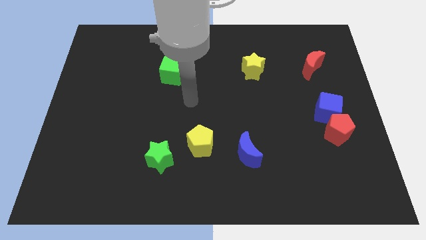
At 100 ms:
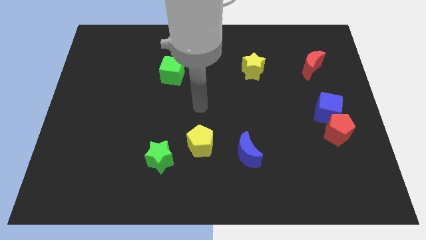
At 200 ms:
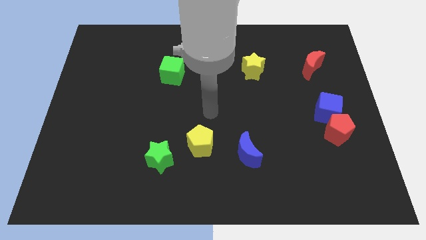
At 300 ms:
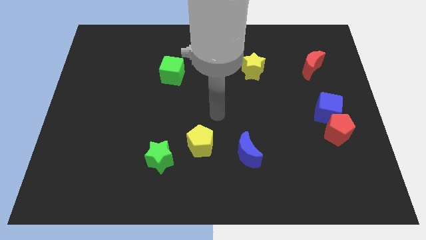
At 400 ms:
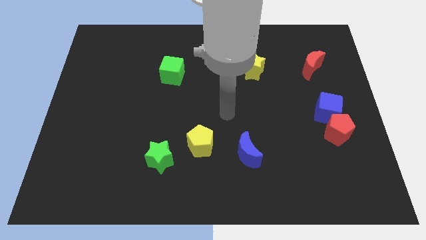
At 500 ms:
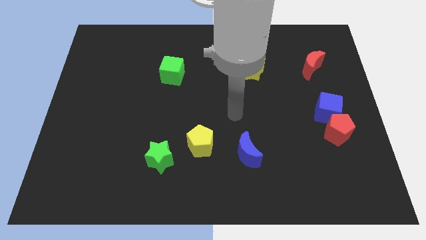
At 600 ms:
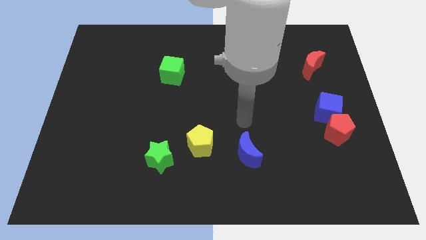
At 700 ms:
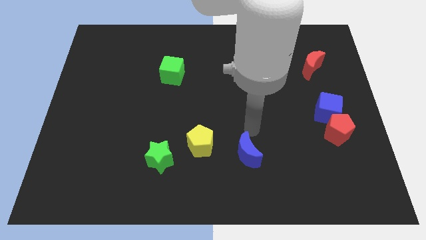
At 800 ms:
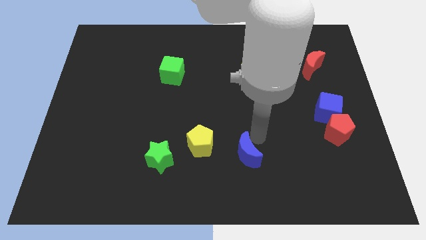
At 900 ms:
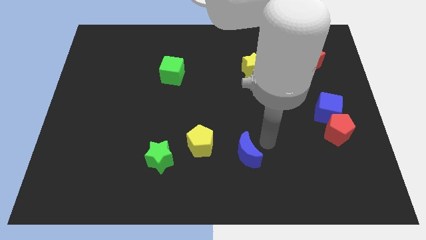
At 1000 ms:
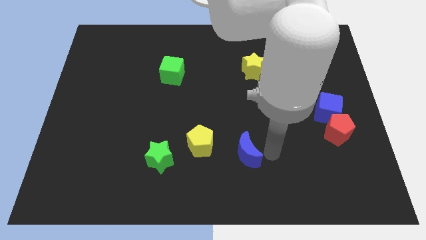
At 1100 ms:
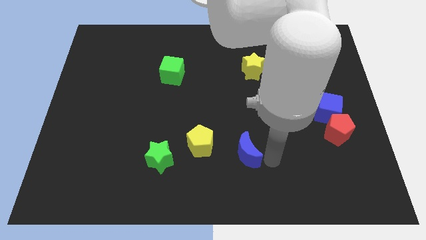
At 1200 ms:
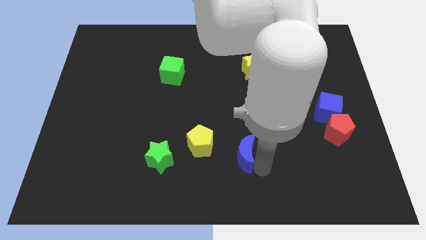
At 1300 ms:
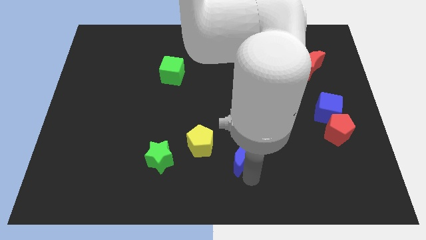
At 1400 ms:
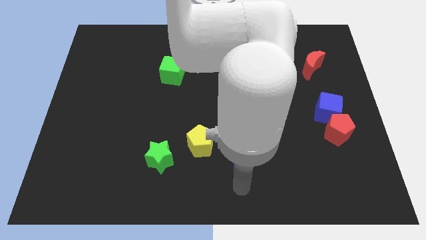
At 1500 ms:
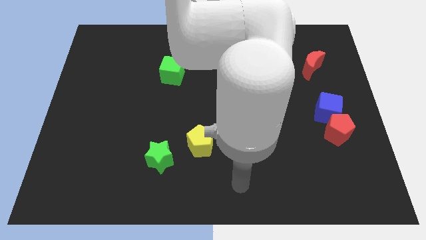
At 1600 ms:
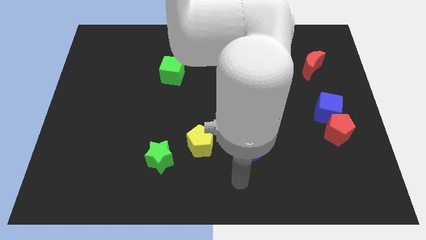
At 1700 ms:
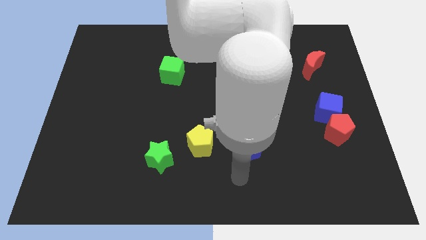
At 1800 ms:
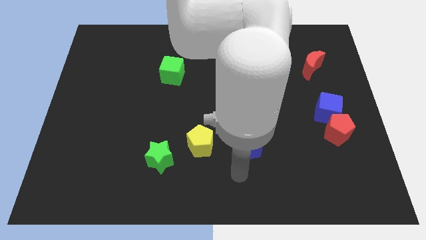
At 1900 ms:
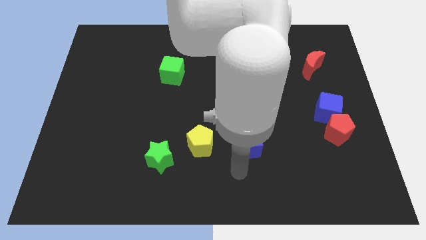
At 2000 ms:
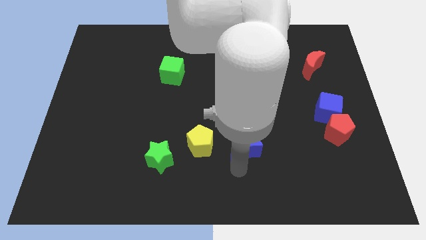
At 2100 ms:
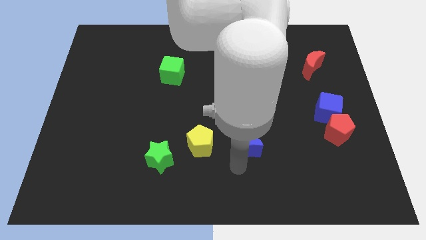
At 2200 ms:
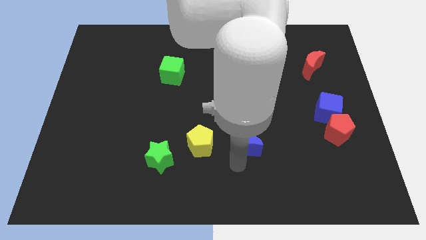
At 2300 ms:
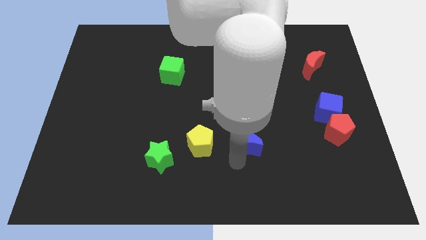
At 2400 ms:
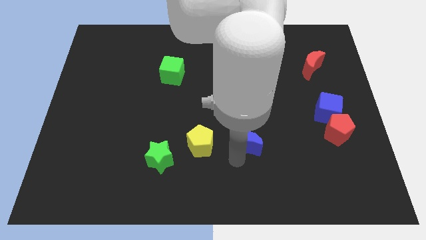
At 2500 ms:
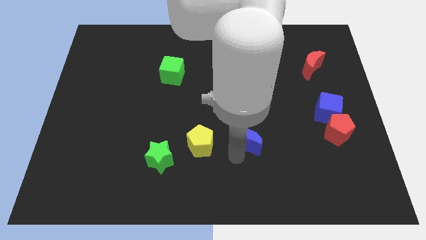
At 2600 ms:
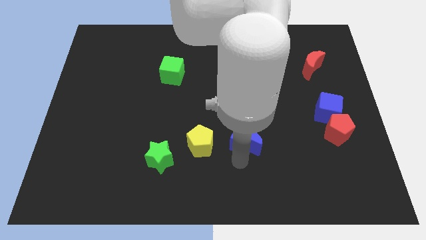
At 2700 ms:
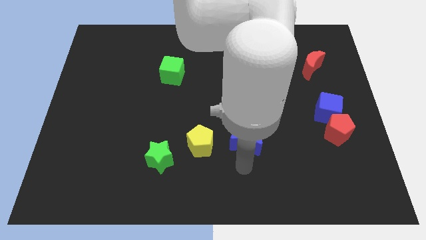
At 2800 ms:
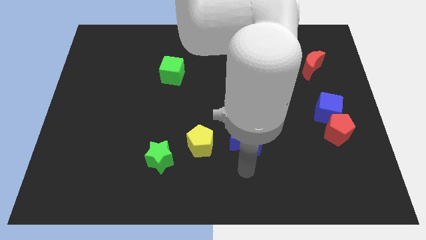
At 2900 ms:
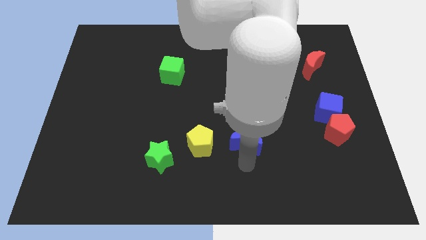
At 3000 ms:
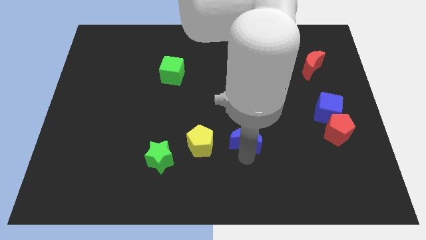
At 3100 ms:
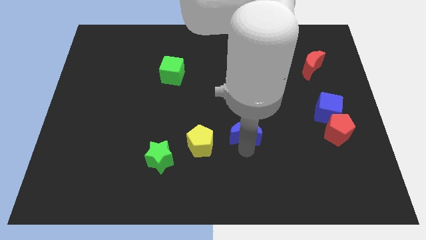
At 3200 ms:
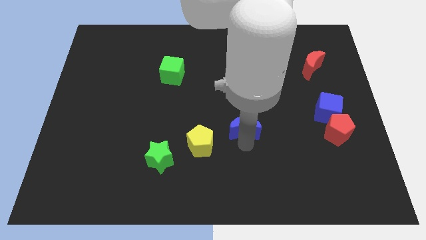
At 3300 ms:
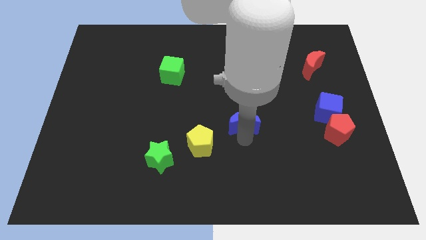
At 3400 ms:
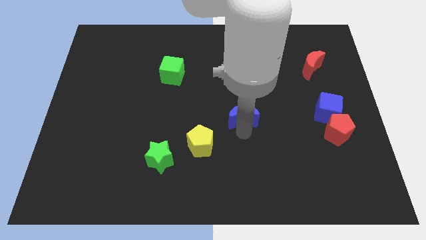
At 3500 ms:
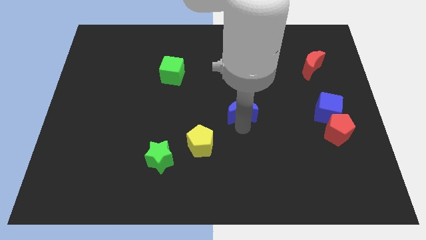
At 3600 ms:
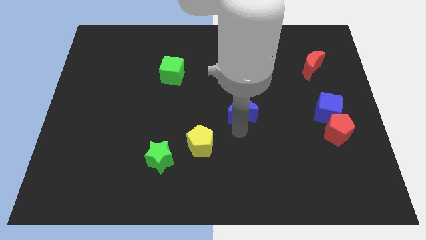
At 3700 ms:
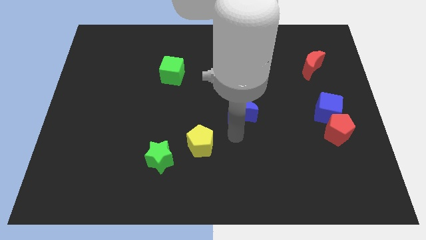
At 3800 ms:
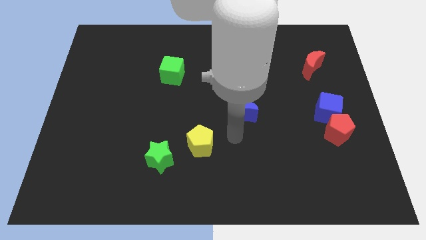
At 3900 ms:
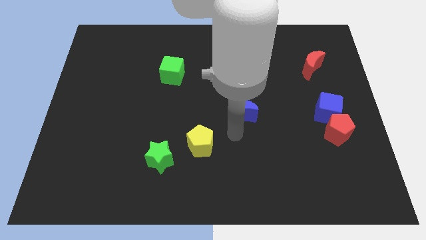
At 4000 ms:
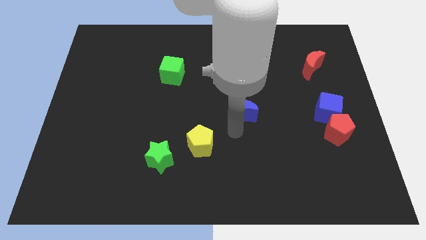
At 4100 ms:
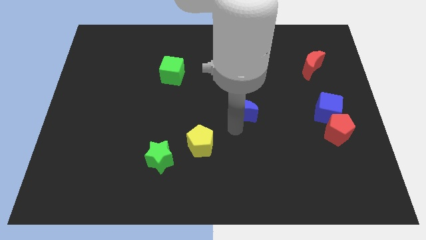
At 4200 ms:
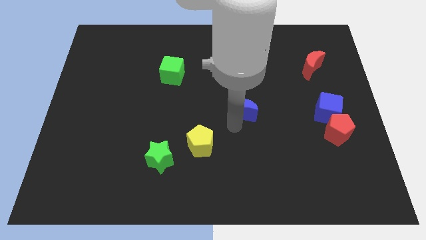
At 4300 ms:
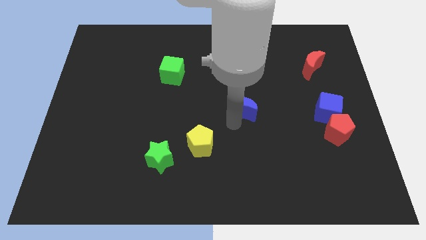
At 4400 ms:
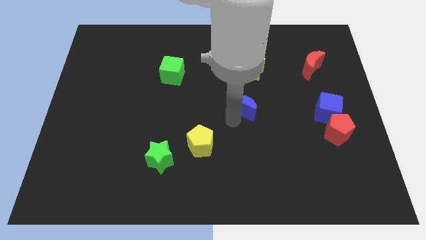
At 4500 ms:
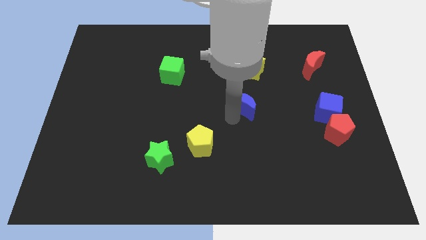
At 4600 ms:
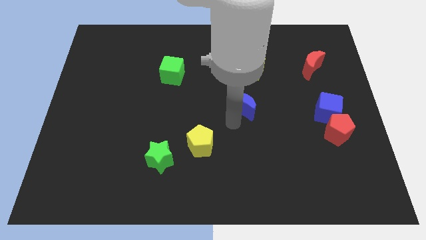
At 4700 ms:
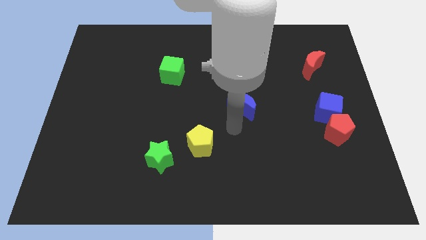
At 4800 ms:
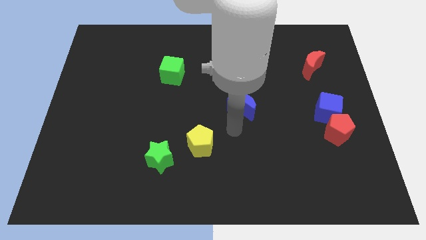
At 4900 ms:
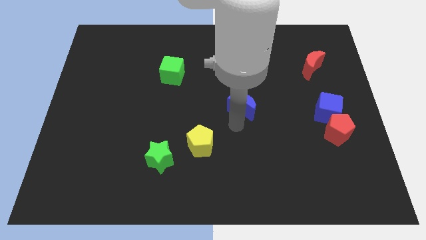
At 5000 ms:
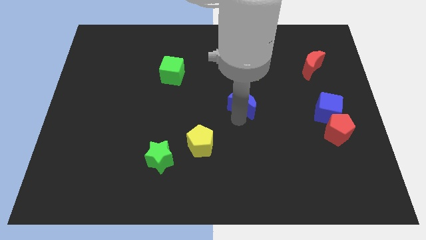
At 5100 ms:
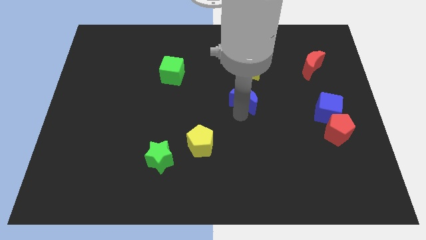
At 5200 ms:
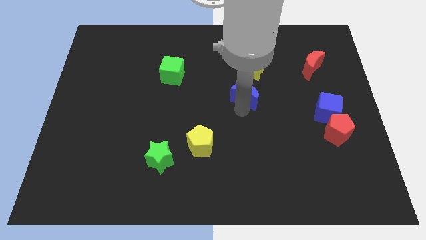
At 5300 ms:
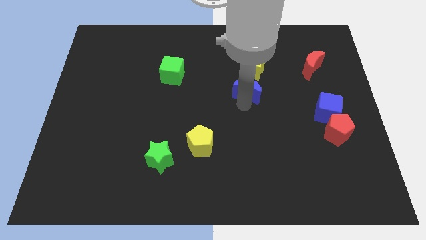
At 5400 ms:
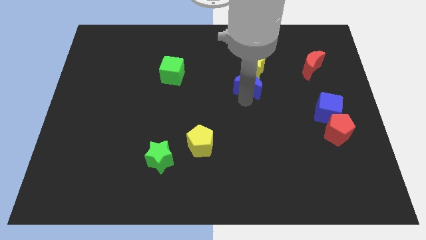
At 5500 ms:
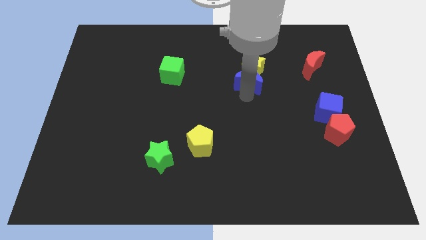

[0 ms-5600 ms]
move the blue moon next to the yellow star

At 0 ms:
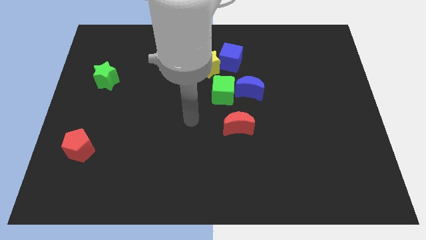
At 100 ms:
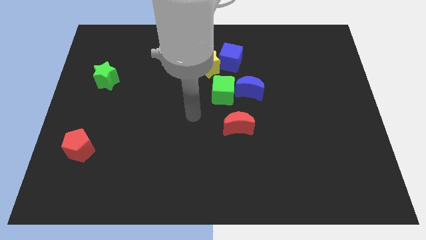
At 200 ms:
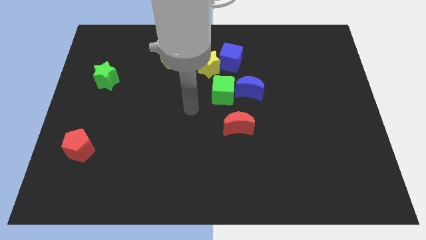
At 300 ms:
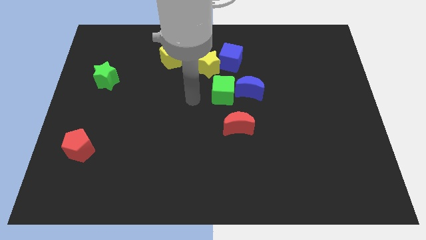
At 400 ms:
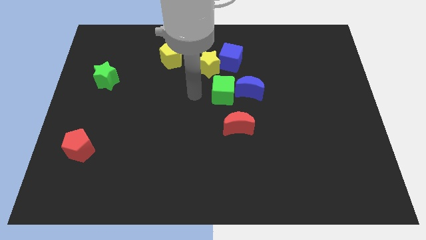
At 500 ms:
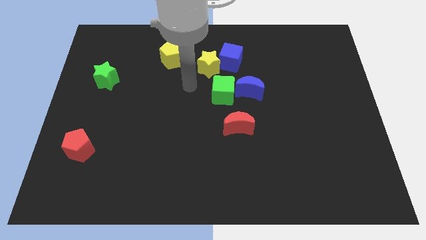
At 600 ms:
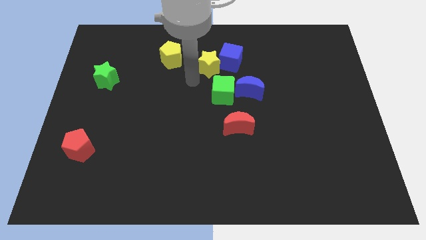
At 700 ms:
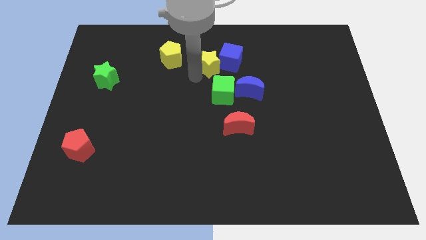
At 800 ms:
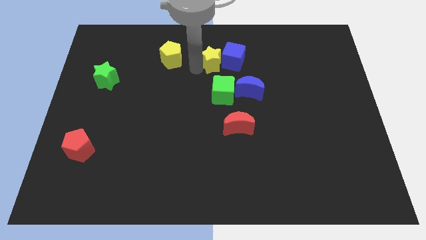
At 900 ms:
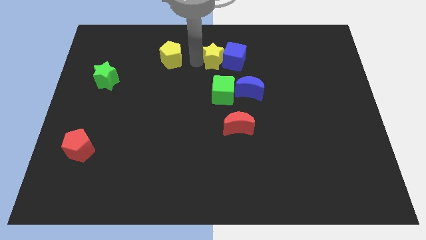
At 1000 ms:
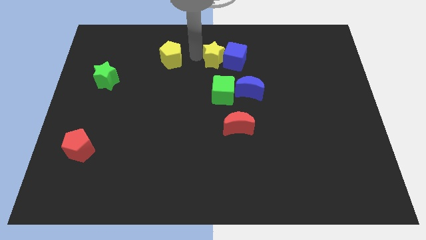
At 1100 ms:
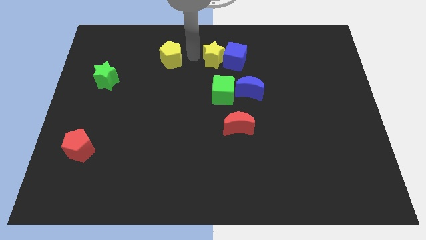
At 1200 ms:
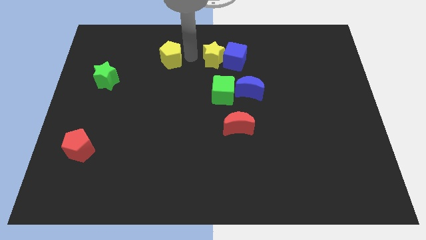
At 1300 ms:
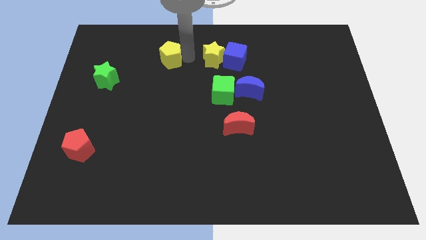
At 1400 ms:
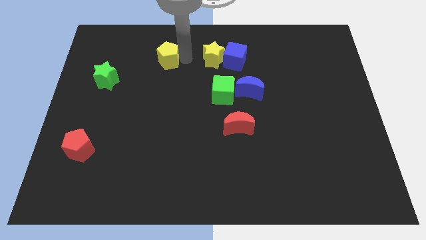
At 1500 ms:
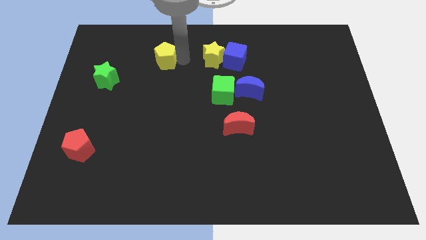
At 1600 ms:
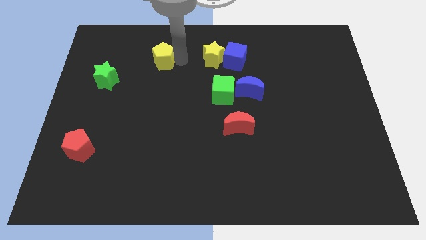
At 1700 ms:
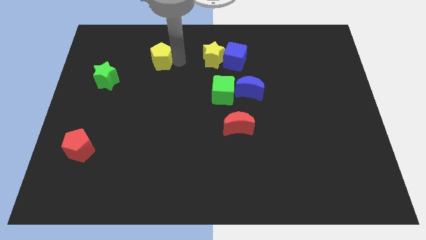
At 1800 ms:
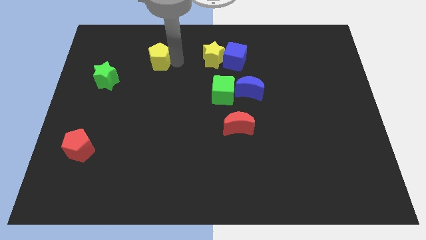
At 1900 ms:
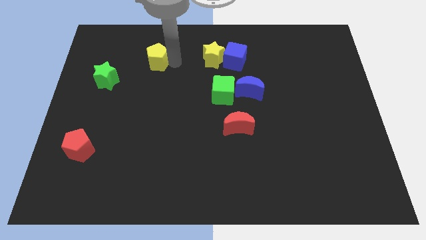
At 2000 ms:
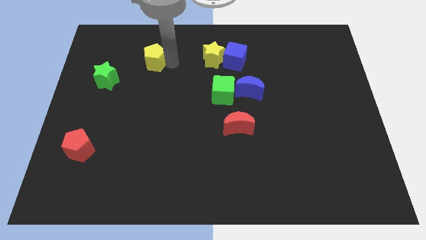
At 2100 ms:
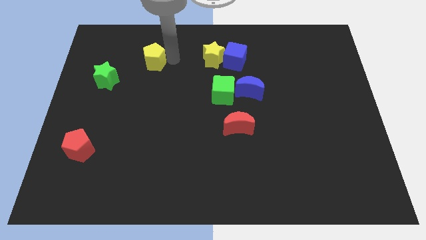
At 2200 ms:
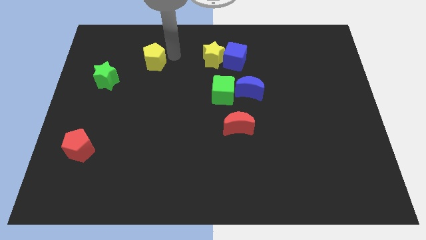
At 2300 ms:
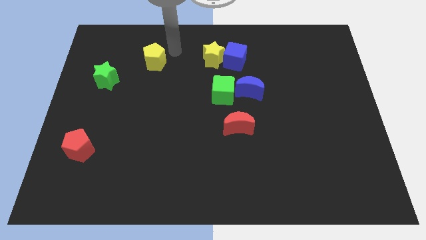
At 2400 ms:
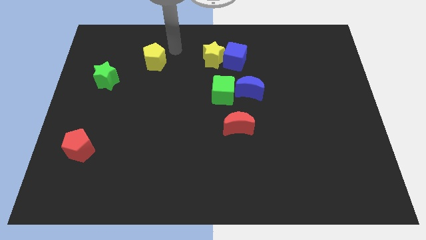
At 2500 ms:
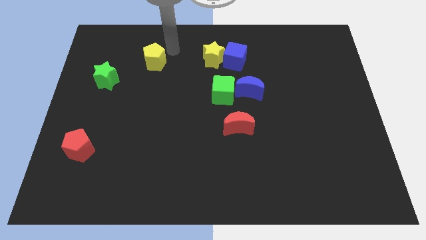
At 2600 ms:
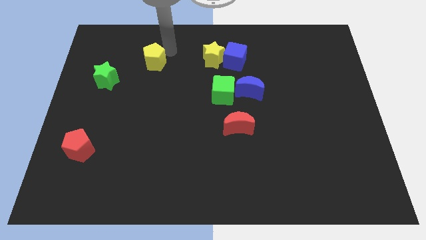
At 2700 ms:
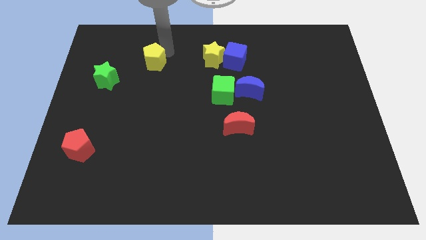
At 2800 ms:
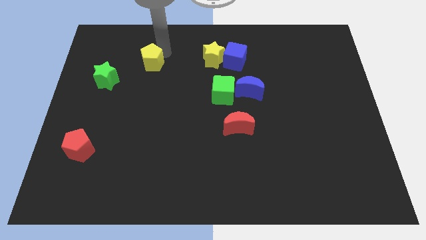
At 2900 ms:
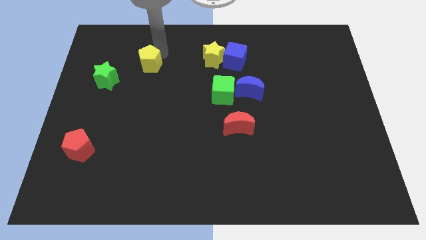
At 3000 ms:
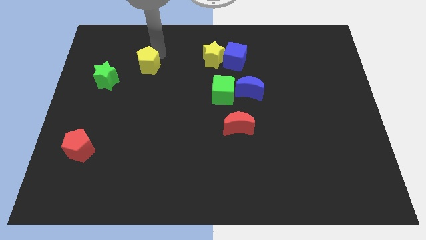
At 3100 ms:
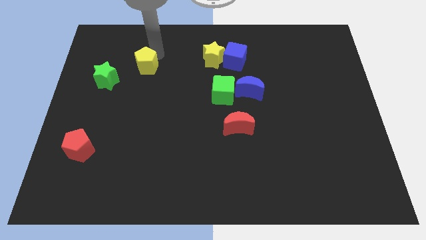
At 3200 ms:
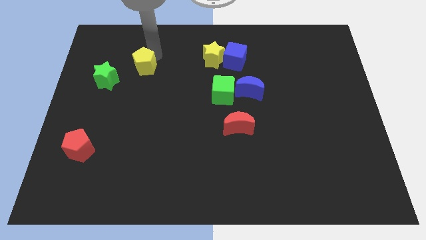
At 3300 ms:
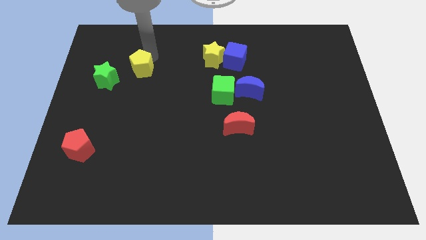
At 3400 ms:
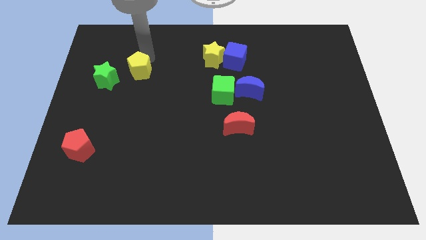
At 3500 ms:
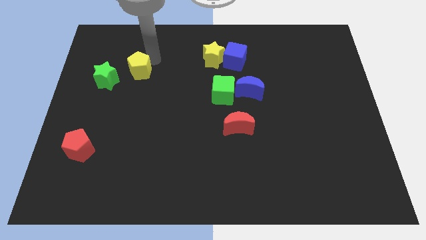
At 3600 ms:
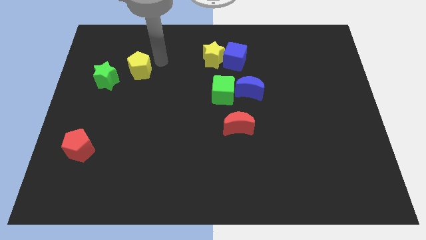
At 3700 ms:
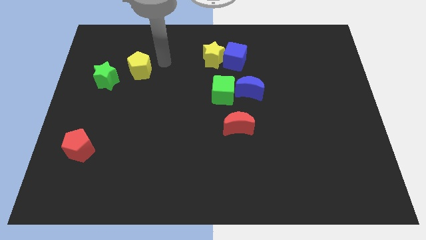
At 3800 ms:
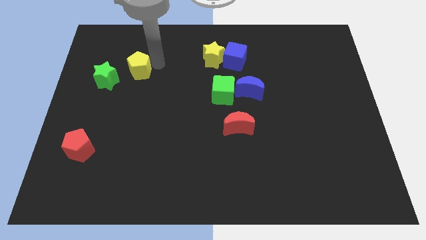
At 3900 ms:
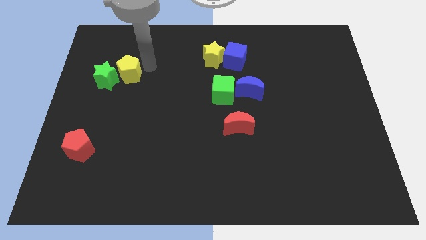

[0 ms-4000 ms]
push the yellow pentagon close to the green star
